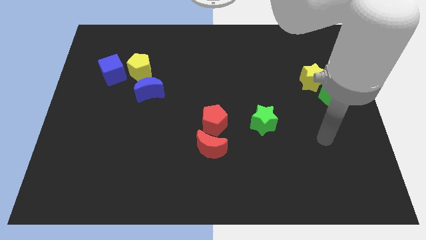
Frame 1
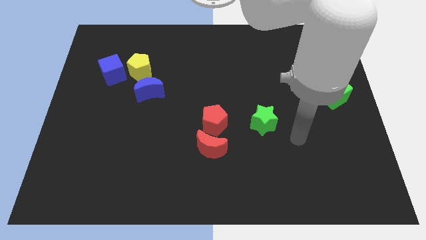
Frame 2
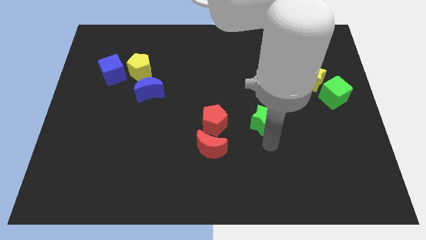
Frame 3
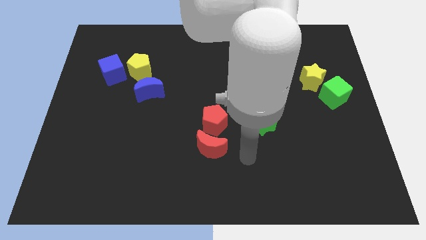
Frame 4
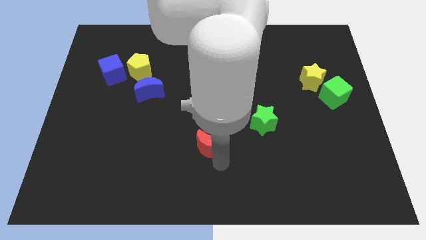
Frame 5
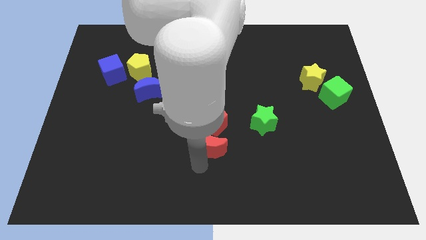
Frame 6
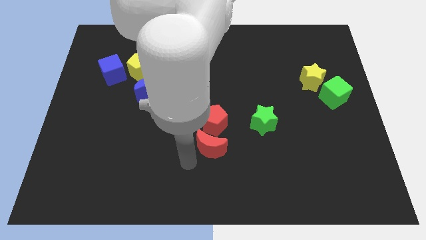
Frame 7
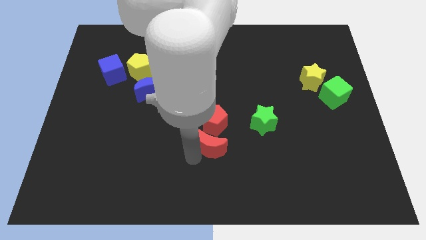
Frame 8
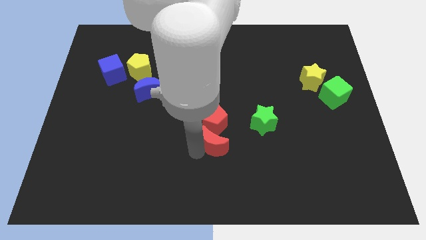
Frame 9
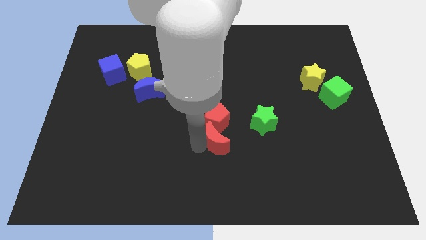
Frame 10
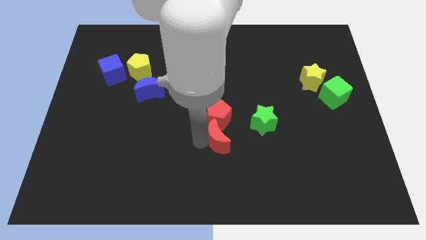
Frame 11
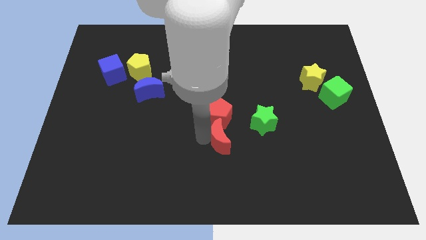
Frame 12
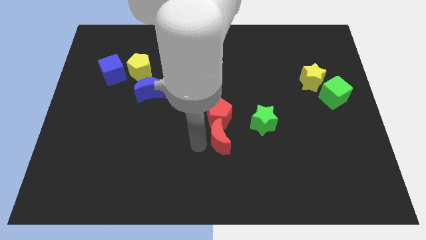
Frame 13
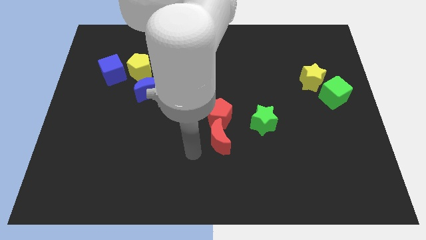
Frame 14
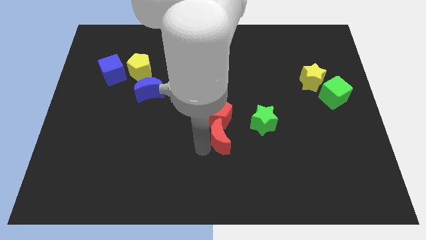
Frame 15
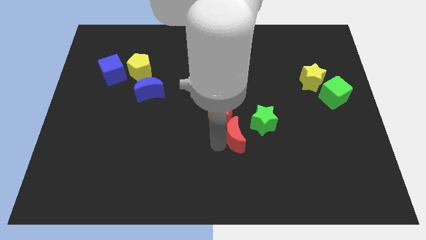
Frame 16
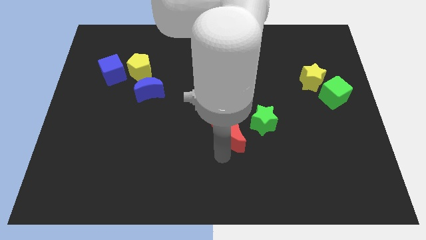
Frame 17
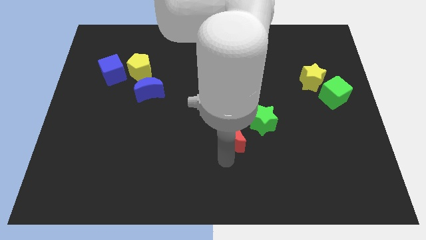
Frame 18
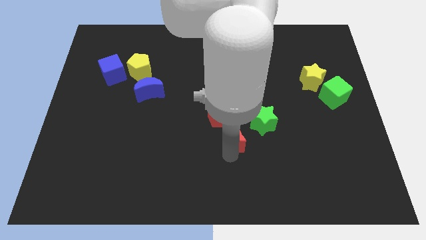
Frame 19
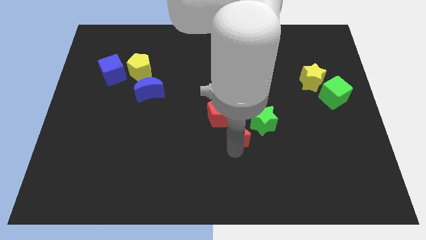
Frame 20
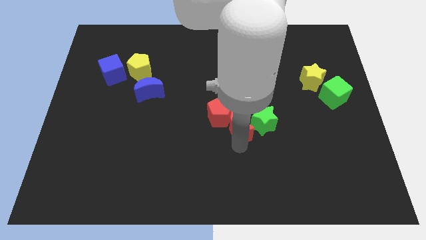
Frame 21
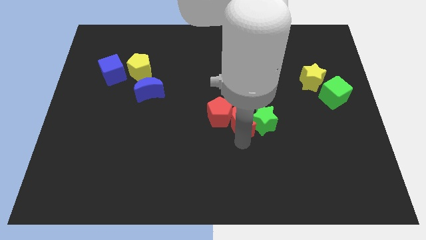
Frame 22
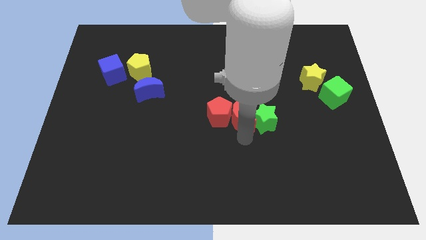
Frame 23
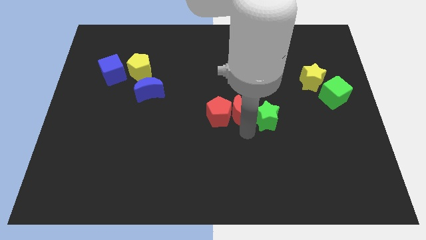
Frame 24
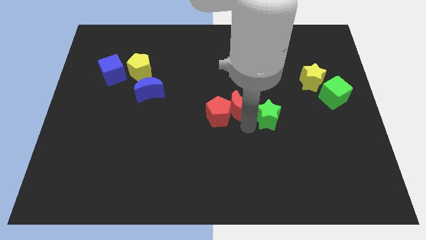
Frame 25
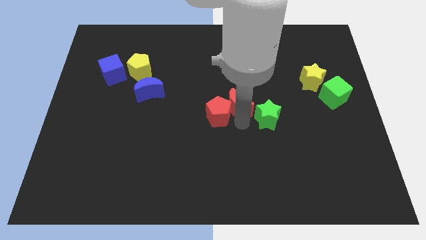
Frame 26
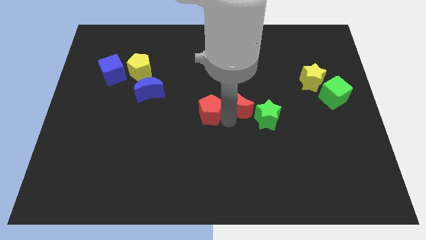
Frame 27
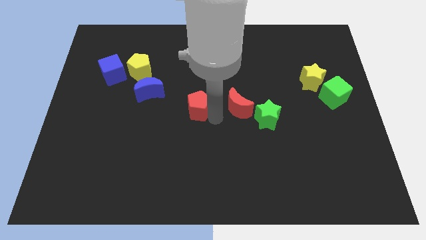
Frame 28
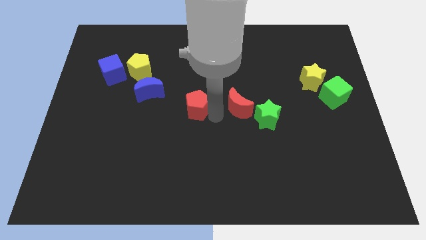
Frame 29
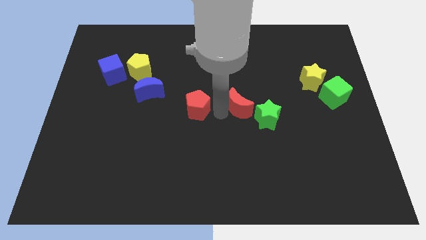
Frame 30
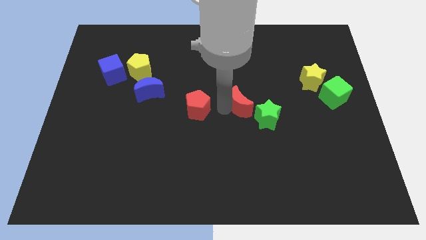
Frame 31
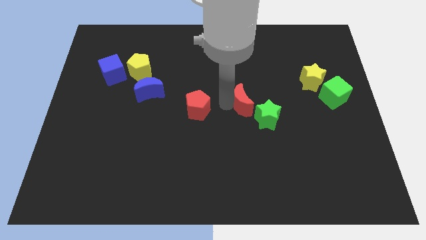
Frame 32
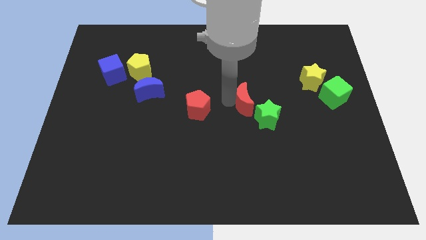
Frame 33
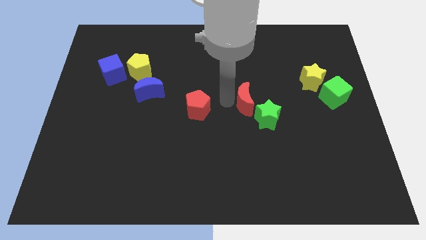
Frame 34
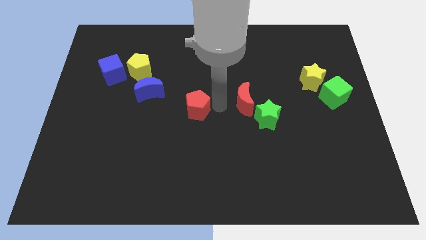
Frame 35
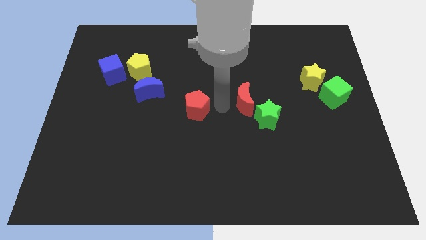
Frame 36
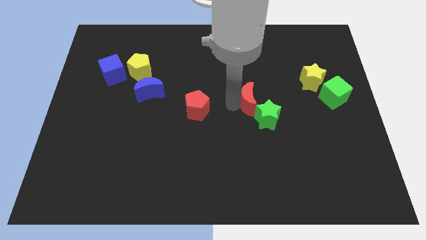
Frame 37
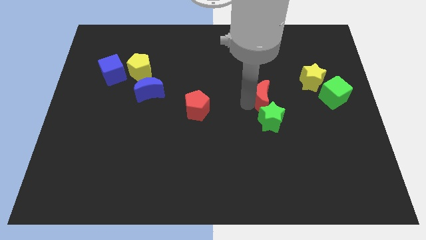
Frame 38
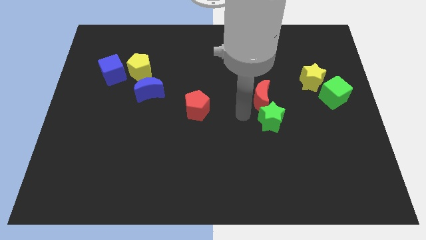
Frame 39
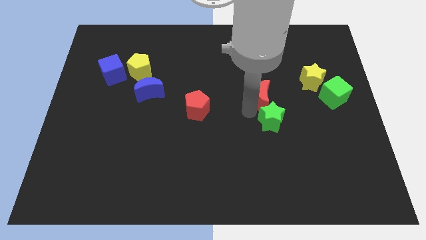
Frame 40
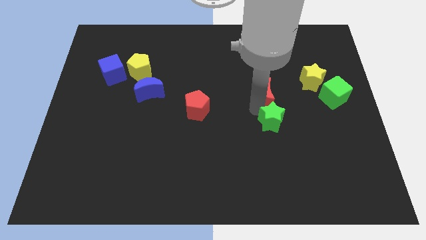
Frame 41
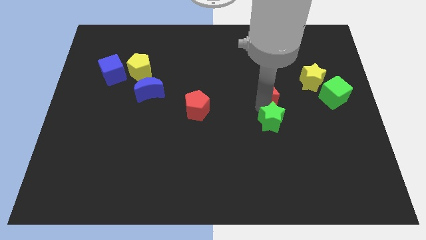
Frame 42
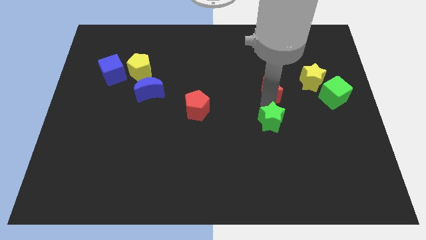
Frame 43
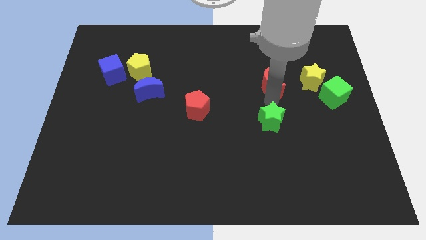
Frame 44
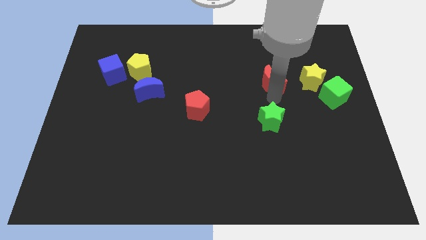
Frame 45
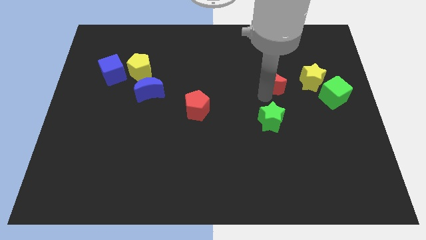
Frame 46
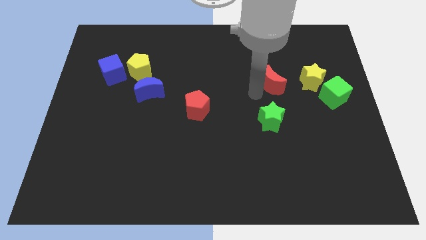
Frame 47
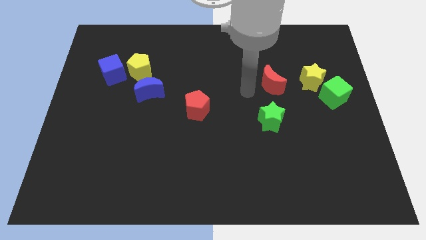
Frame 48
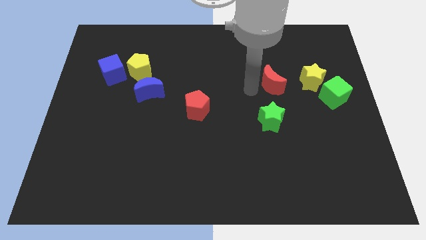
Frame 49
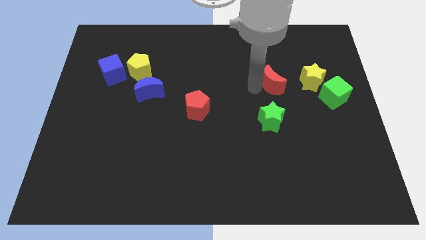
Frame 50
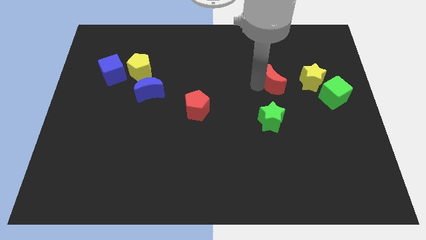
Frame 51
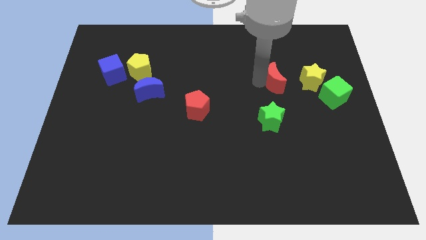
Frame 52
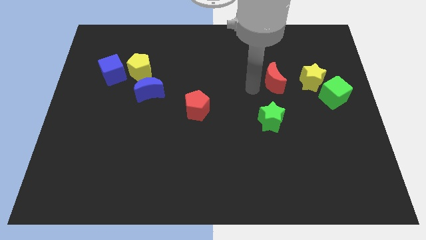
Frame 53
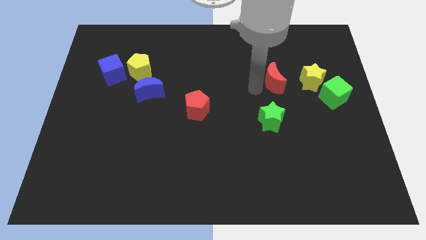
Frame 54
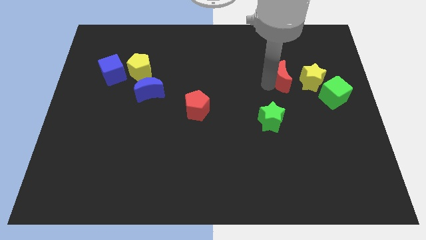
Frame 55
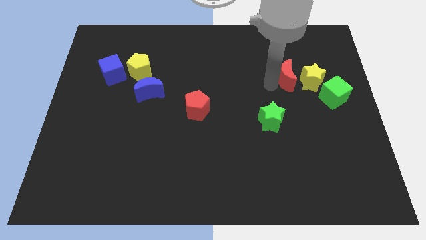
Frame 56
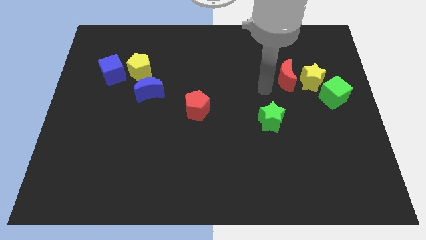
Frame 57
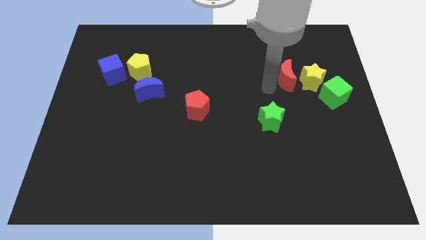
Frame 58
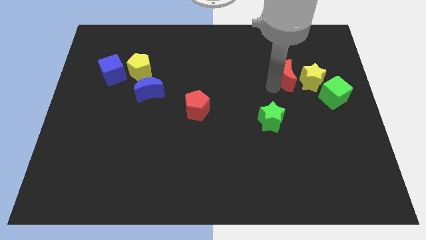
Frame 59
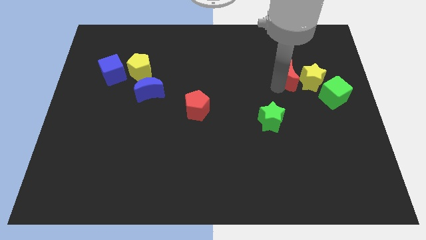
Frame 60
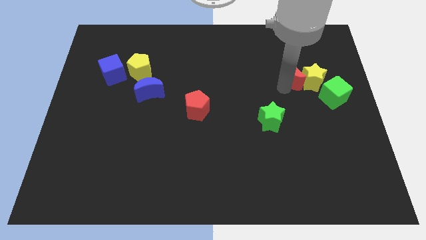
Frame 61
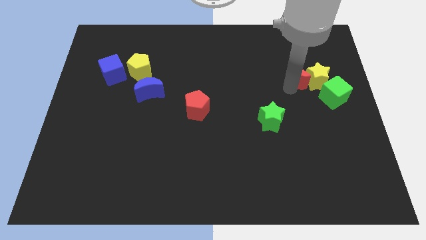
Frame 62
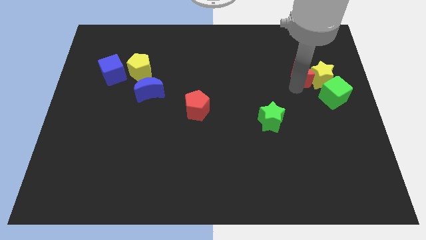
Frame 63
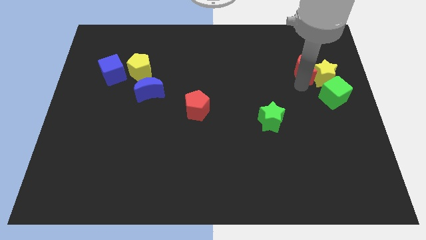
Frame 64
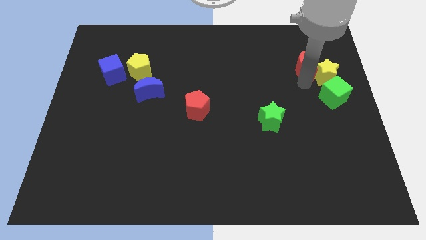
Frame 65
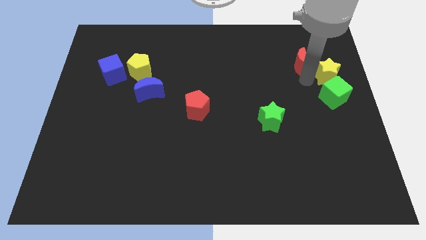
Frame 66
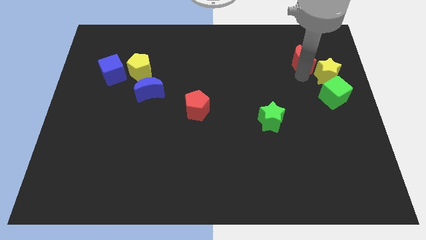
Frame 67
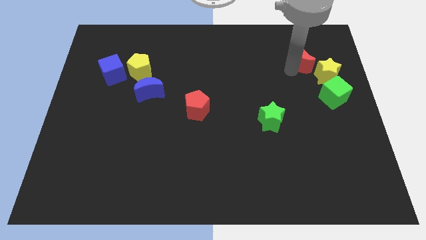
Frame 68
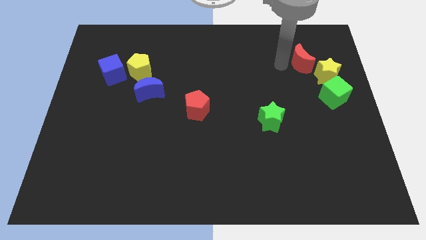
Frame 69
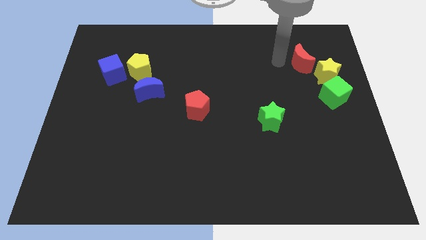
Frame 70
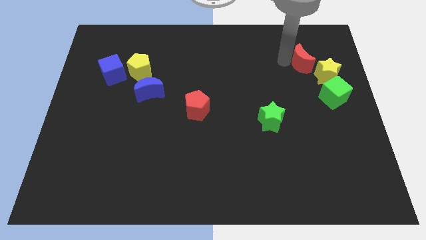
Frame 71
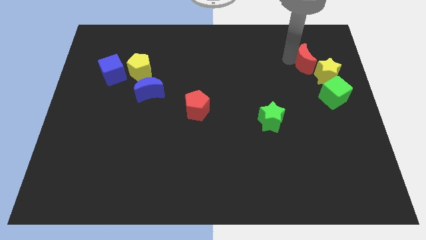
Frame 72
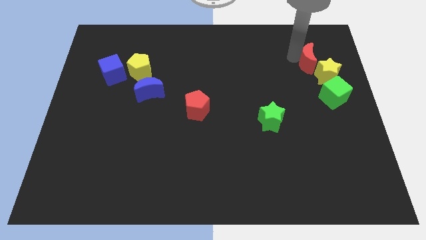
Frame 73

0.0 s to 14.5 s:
push the red moon to the top of the green cube
